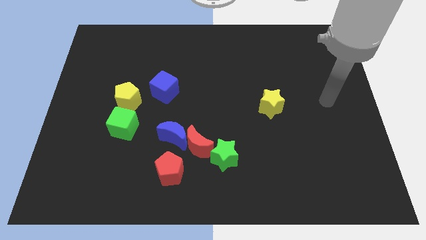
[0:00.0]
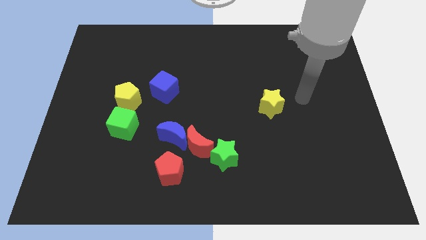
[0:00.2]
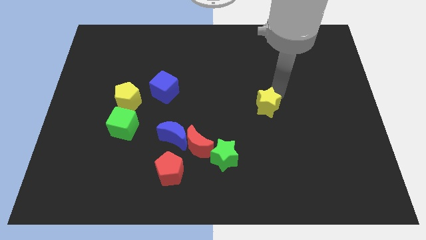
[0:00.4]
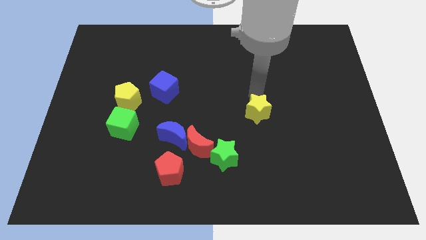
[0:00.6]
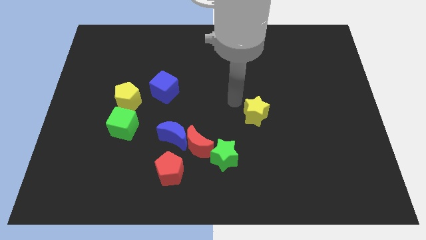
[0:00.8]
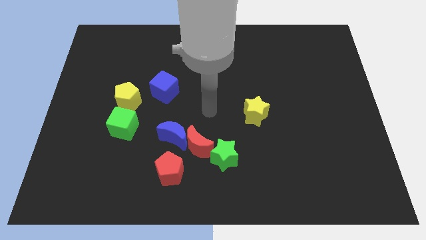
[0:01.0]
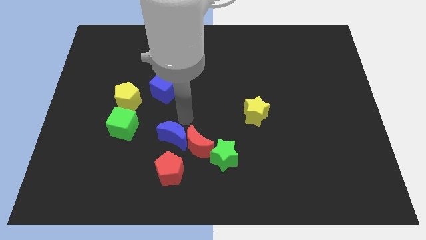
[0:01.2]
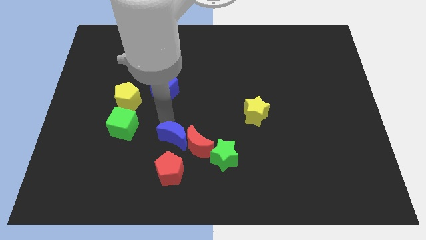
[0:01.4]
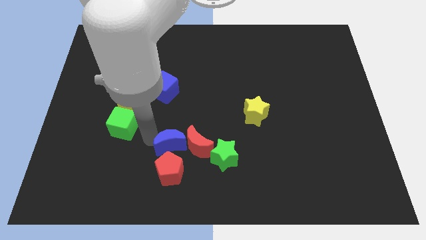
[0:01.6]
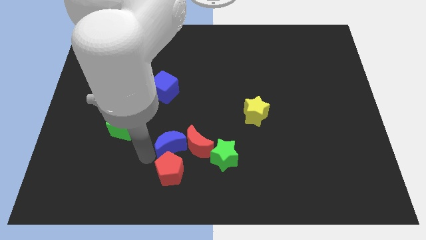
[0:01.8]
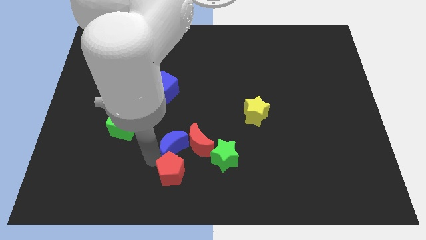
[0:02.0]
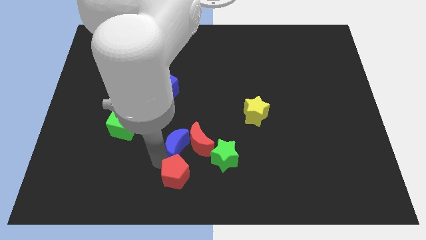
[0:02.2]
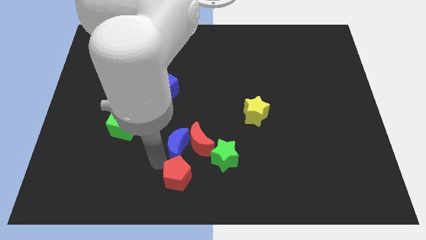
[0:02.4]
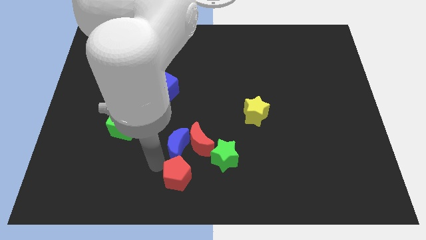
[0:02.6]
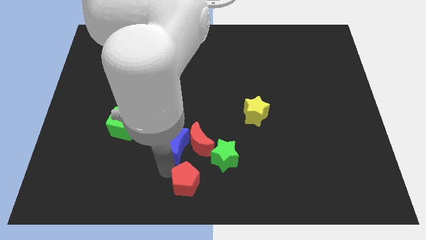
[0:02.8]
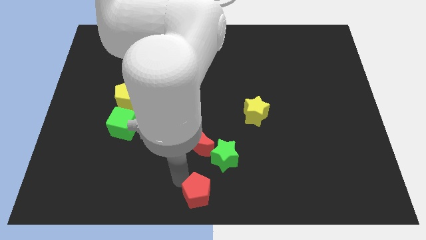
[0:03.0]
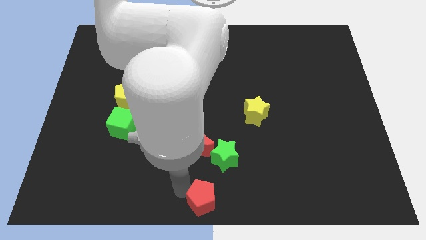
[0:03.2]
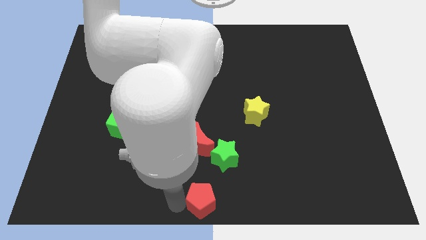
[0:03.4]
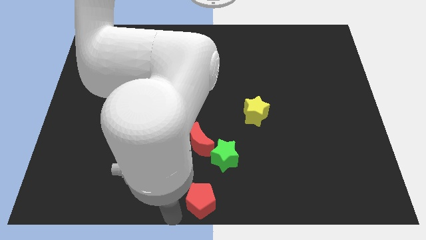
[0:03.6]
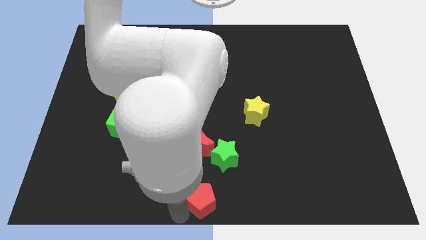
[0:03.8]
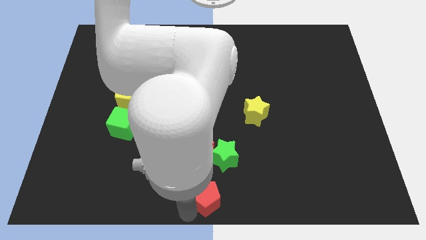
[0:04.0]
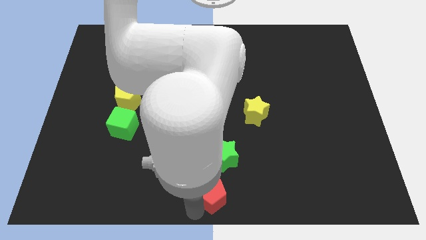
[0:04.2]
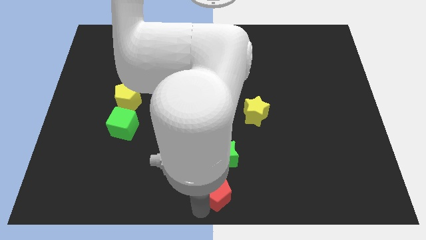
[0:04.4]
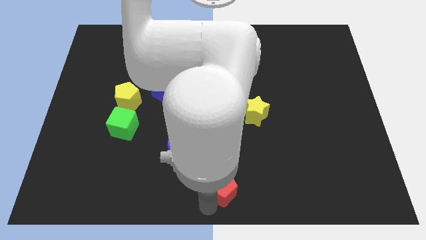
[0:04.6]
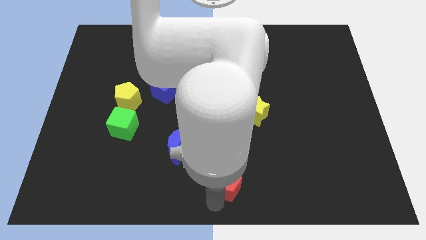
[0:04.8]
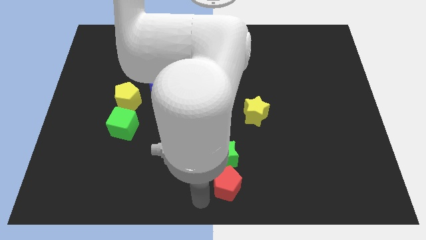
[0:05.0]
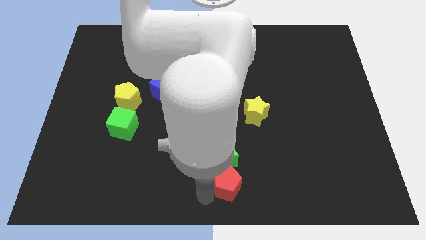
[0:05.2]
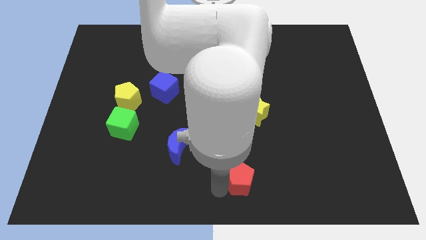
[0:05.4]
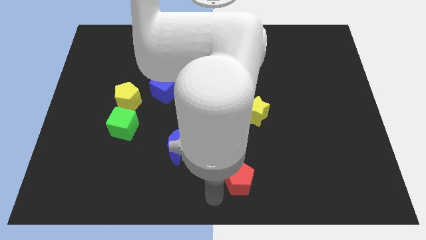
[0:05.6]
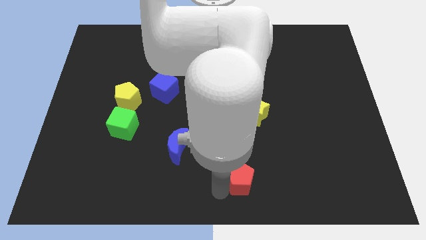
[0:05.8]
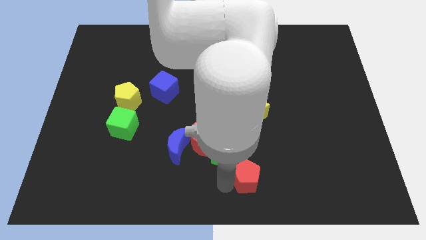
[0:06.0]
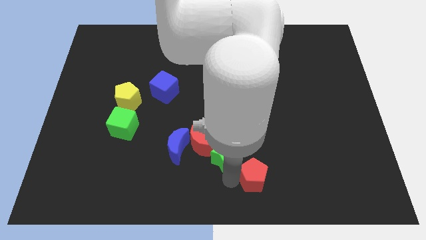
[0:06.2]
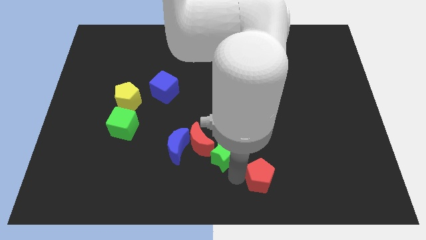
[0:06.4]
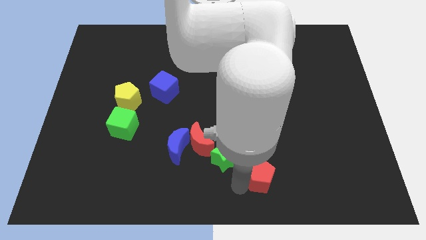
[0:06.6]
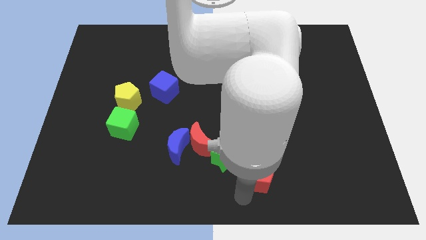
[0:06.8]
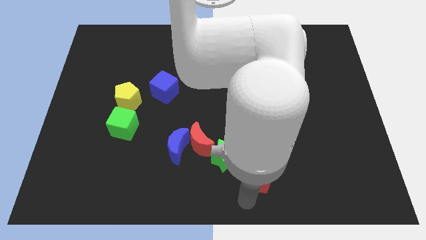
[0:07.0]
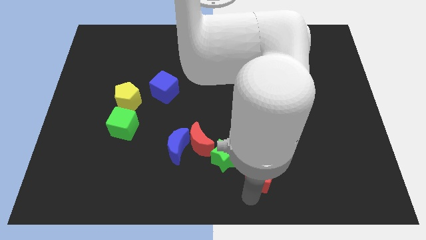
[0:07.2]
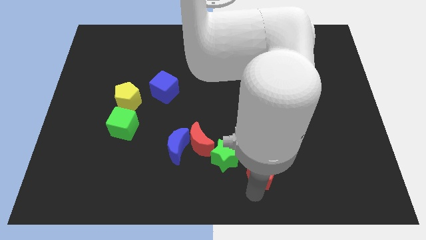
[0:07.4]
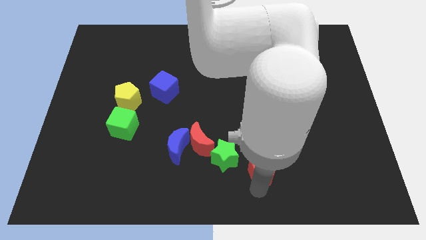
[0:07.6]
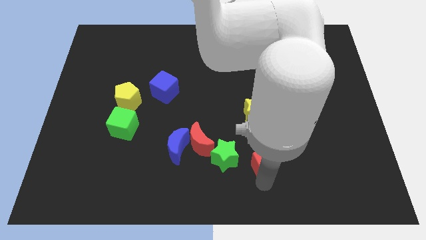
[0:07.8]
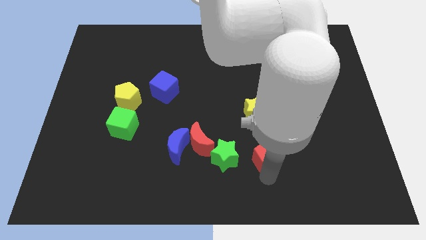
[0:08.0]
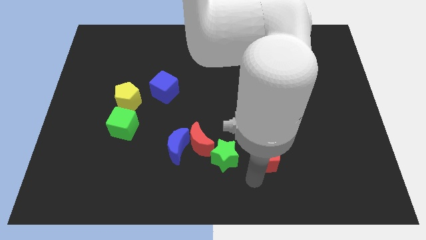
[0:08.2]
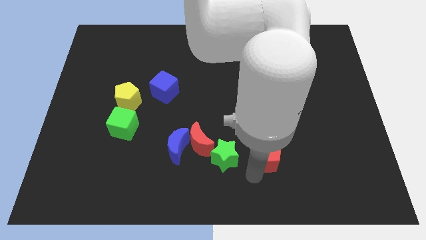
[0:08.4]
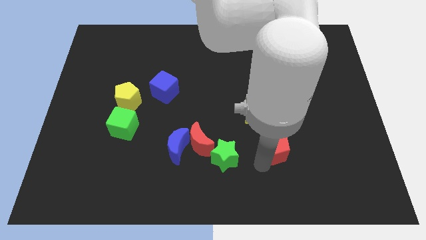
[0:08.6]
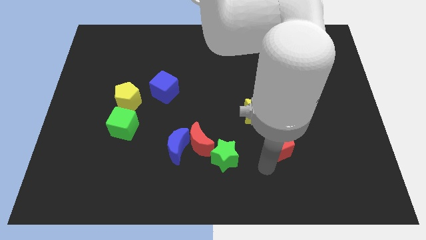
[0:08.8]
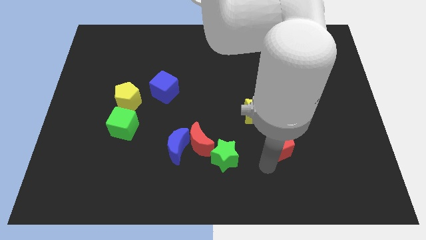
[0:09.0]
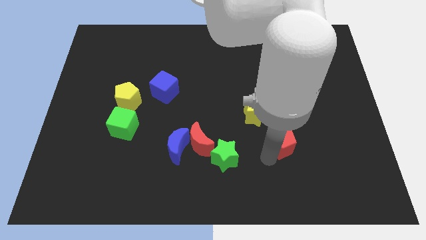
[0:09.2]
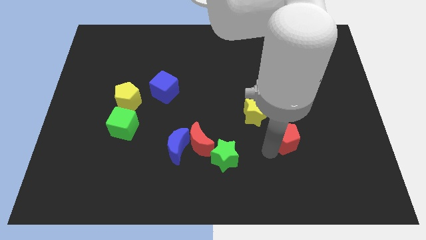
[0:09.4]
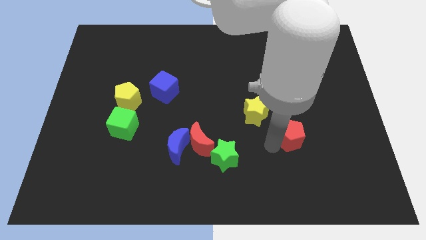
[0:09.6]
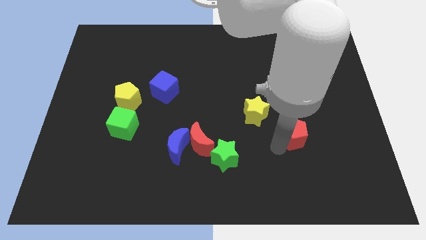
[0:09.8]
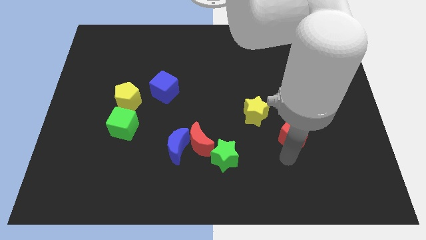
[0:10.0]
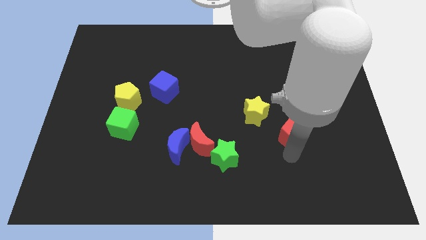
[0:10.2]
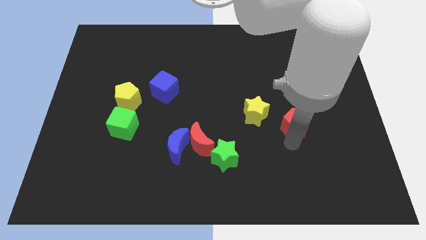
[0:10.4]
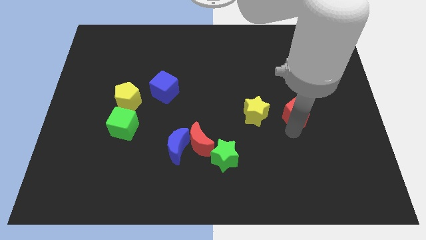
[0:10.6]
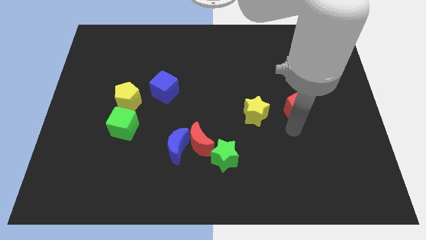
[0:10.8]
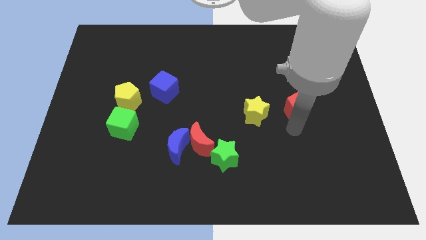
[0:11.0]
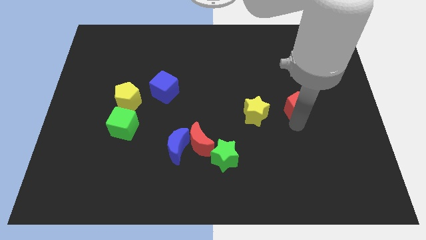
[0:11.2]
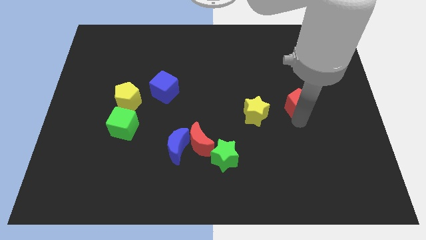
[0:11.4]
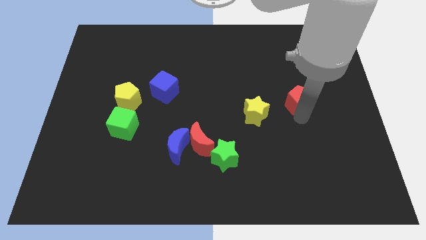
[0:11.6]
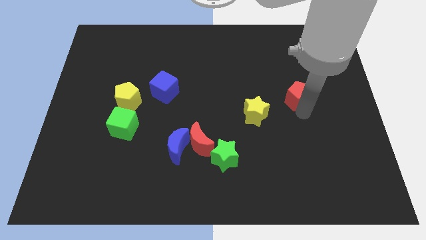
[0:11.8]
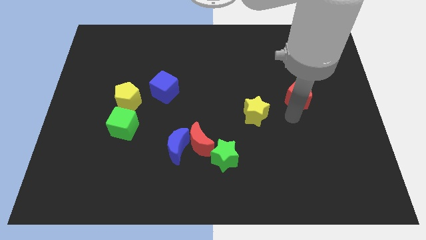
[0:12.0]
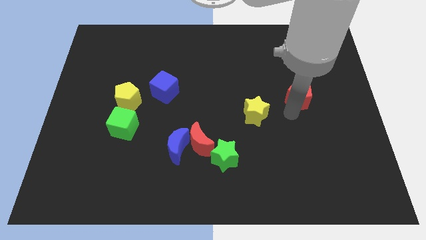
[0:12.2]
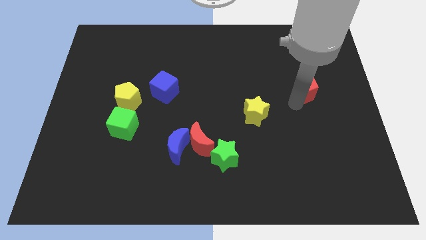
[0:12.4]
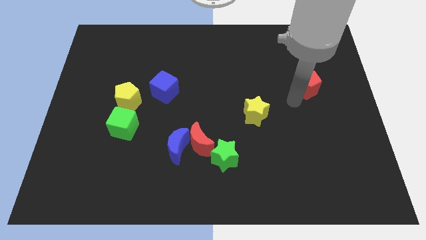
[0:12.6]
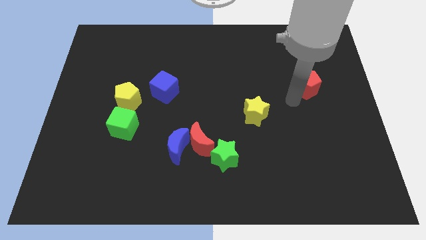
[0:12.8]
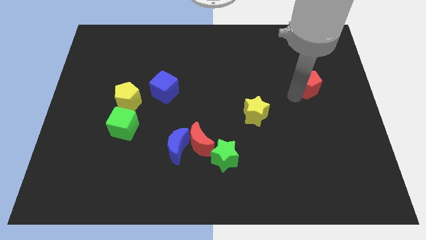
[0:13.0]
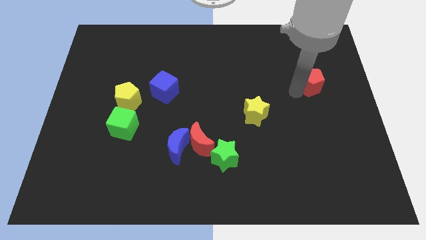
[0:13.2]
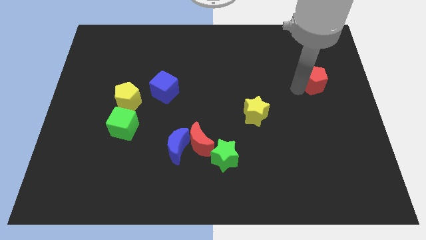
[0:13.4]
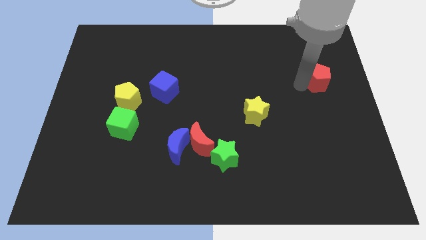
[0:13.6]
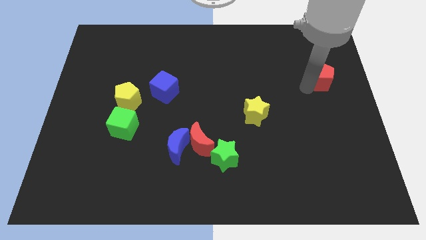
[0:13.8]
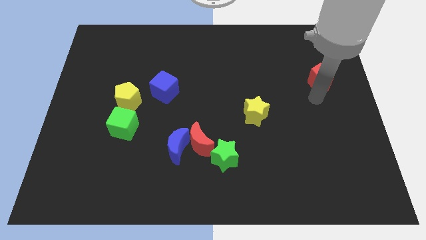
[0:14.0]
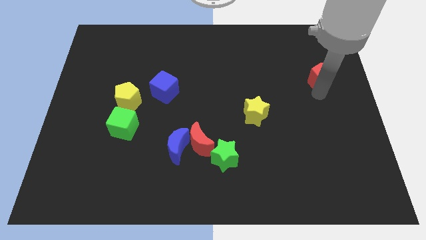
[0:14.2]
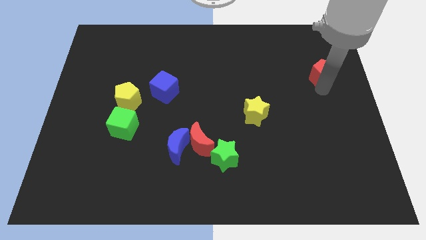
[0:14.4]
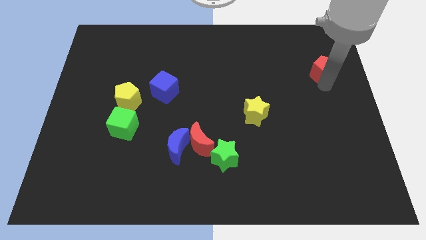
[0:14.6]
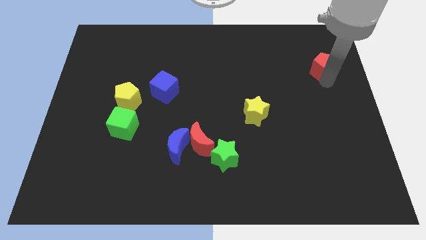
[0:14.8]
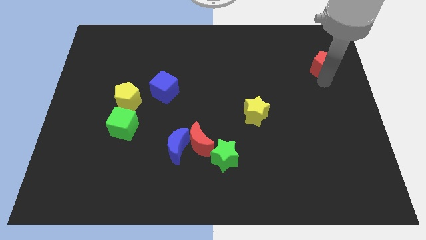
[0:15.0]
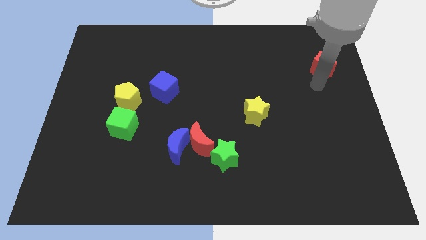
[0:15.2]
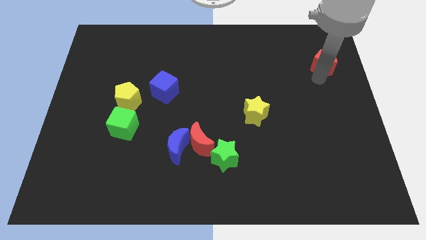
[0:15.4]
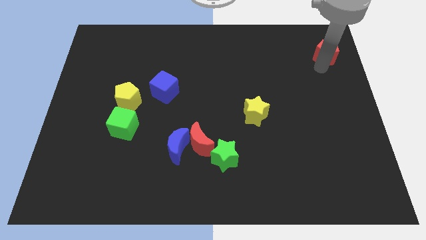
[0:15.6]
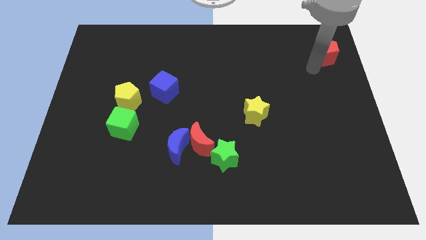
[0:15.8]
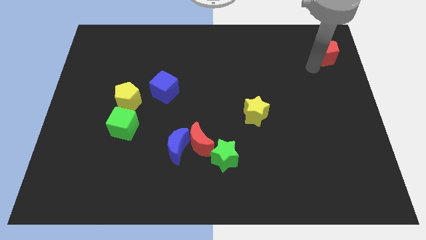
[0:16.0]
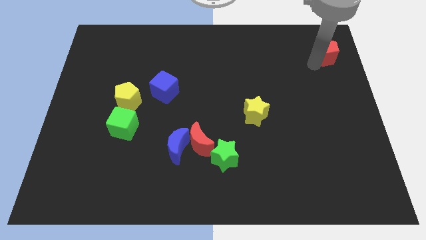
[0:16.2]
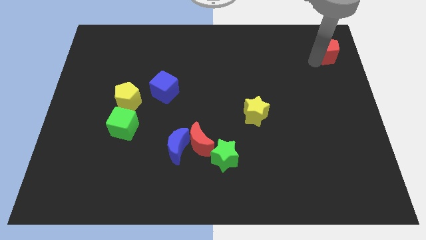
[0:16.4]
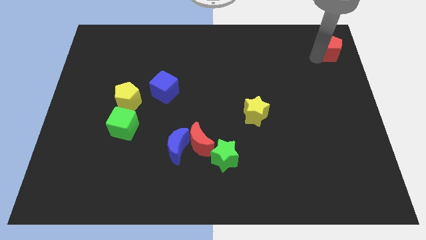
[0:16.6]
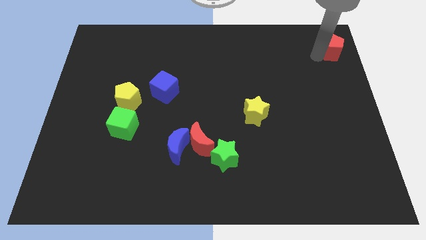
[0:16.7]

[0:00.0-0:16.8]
slide the red pentagon to the top right corner
